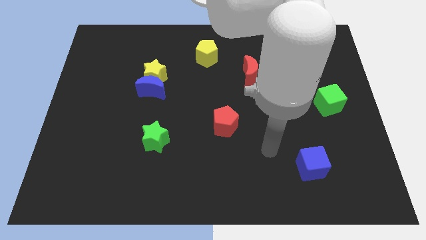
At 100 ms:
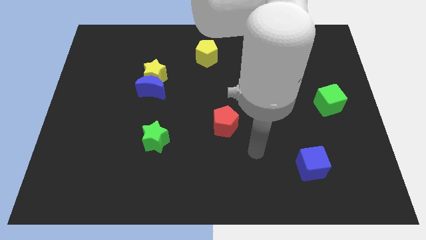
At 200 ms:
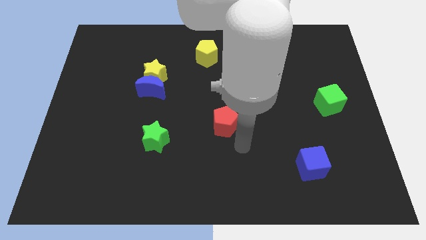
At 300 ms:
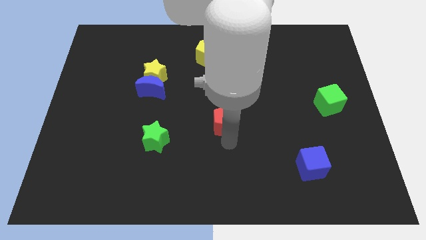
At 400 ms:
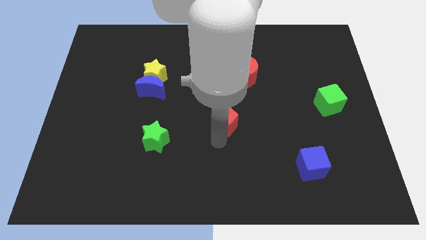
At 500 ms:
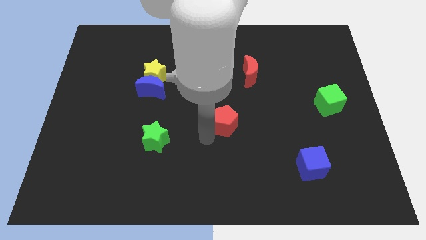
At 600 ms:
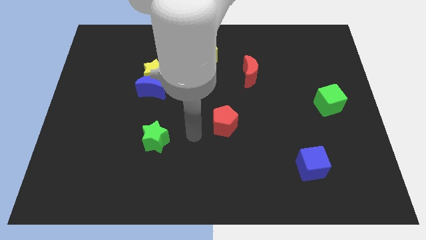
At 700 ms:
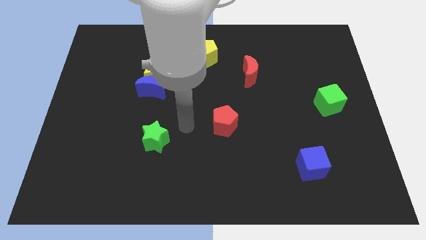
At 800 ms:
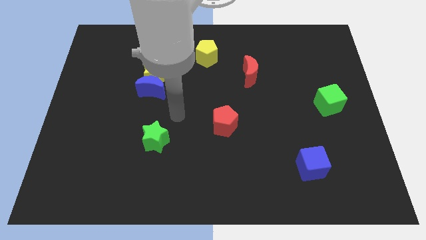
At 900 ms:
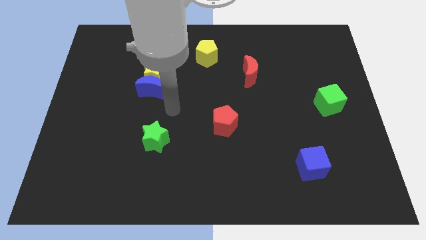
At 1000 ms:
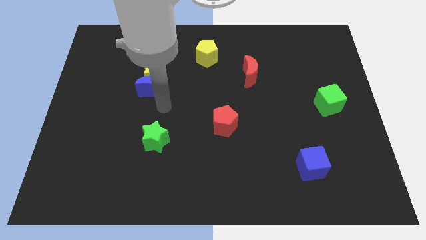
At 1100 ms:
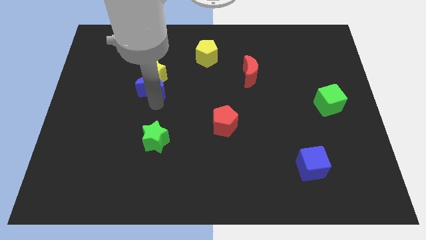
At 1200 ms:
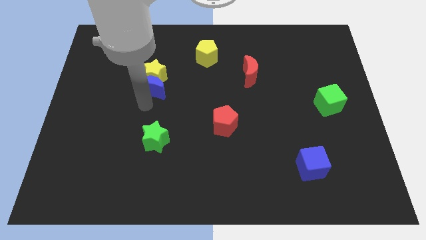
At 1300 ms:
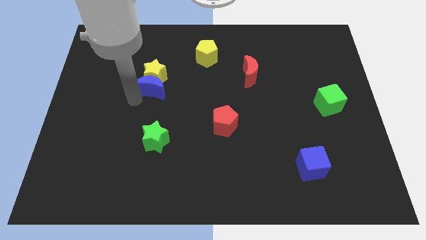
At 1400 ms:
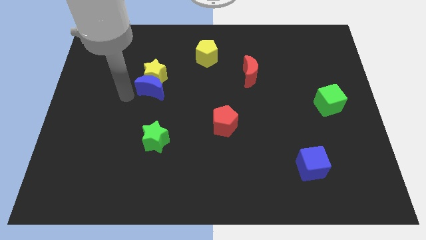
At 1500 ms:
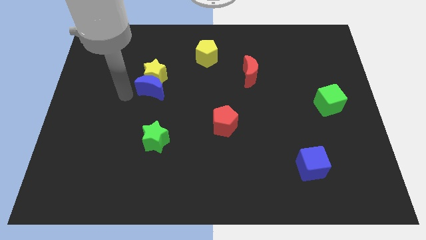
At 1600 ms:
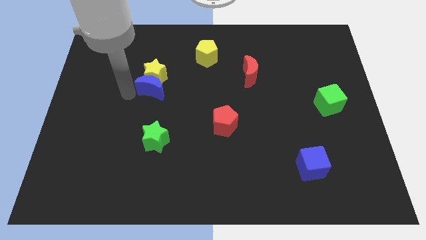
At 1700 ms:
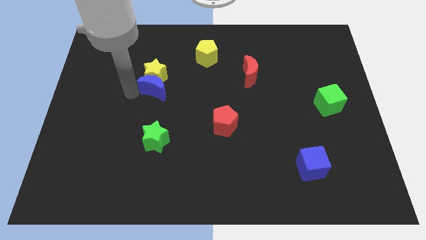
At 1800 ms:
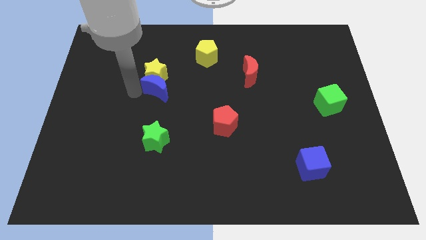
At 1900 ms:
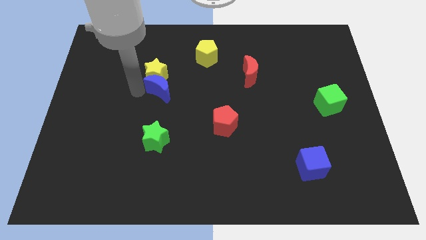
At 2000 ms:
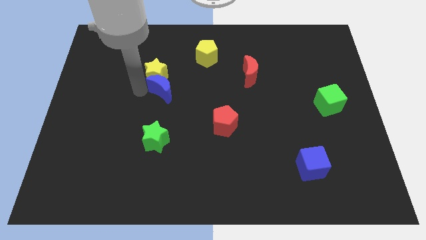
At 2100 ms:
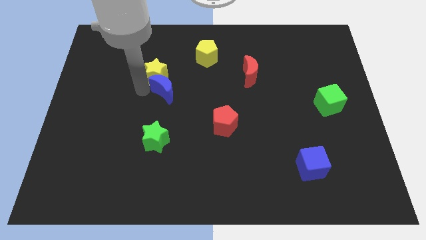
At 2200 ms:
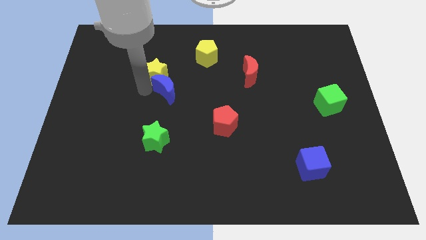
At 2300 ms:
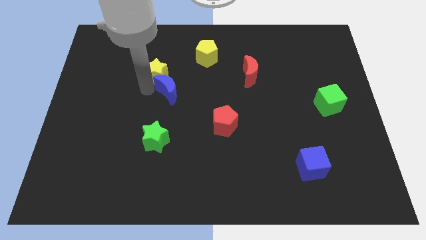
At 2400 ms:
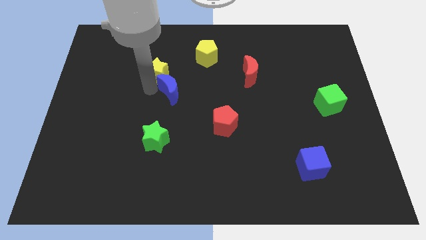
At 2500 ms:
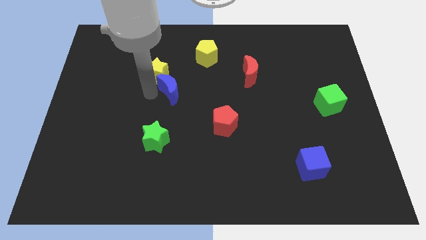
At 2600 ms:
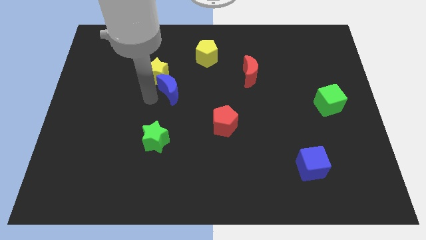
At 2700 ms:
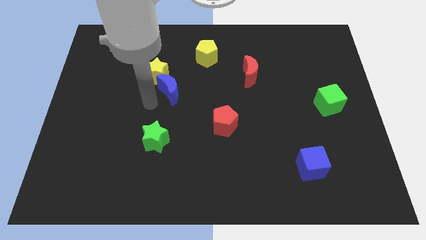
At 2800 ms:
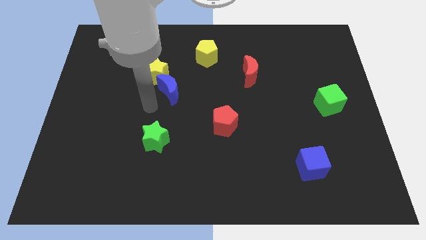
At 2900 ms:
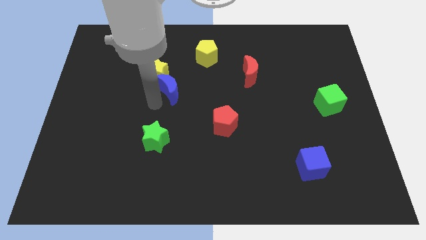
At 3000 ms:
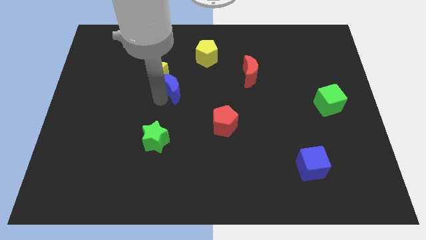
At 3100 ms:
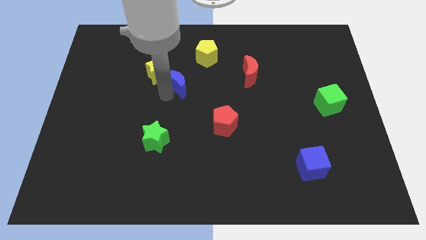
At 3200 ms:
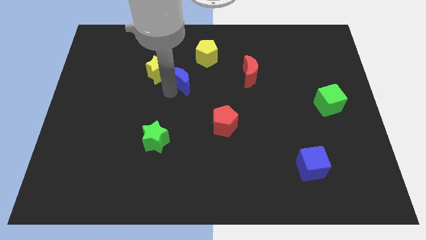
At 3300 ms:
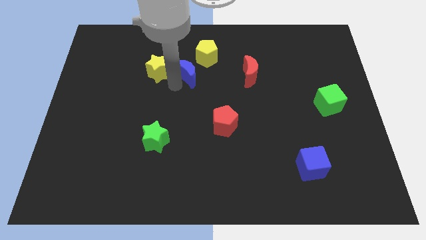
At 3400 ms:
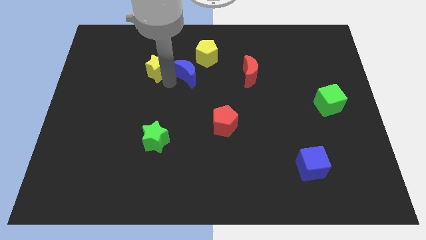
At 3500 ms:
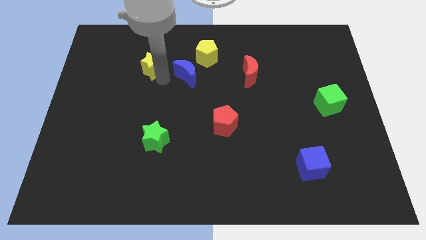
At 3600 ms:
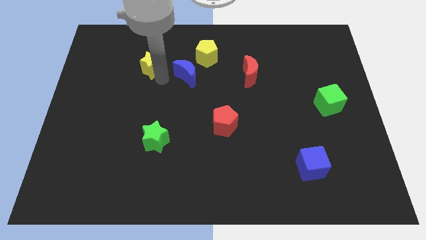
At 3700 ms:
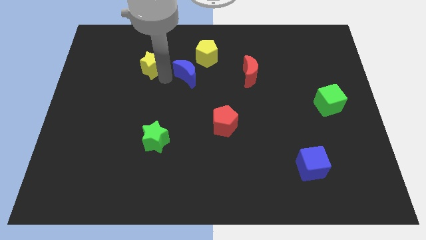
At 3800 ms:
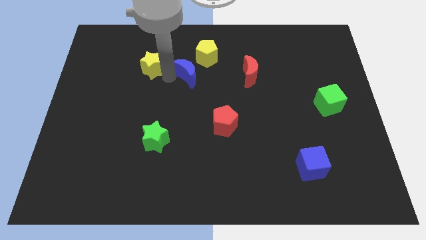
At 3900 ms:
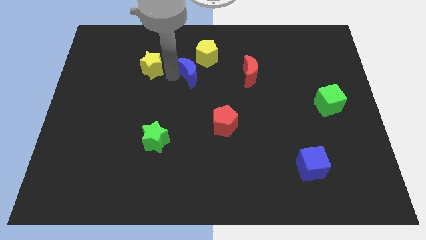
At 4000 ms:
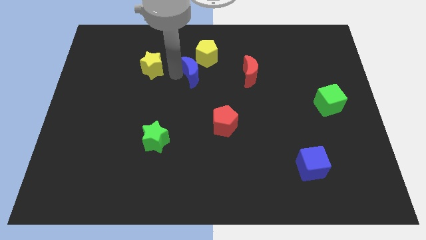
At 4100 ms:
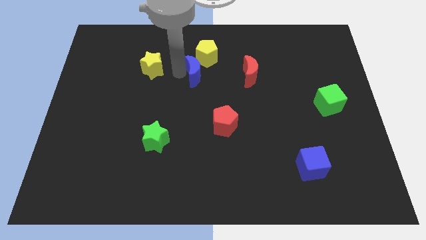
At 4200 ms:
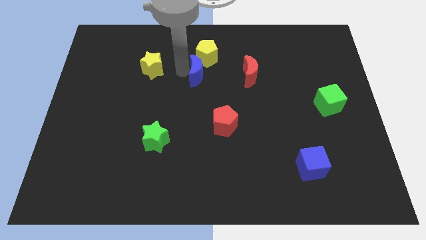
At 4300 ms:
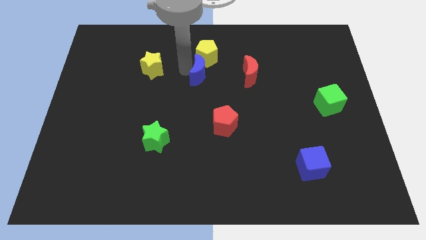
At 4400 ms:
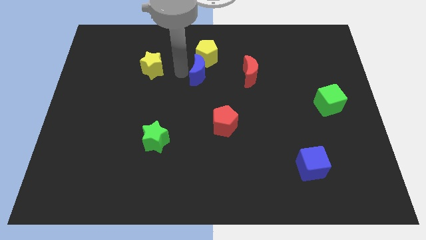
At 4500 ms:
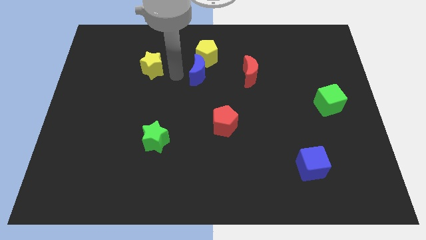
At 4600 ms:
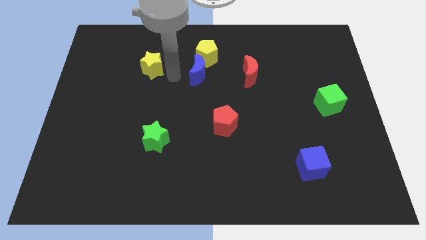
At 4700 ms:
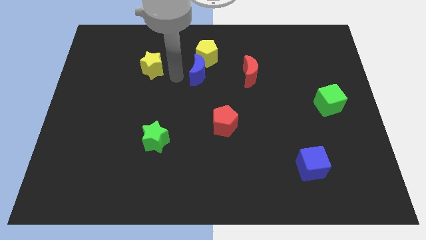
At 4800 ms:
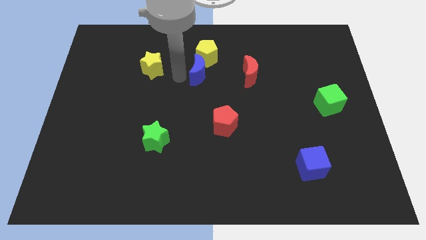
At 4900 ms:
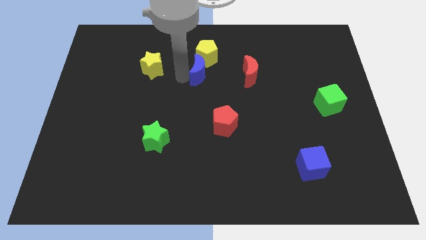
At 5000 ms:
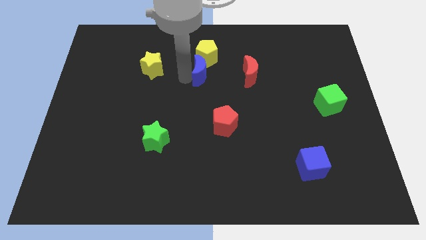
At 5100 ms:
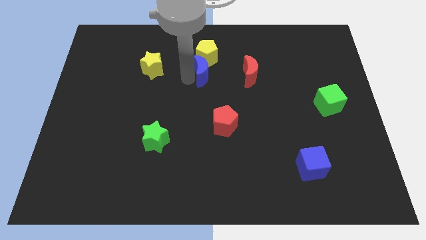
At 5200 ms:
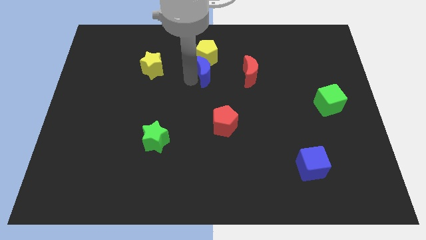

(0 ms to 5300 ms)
put the blue moon to the bottom right of the yellow pentagon

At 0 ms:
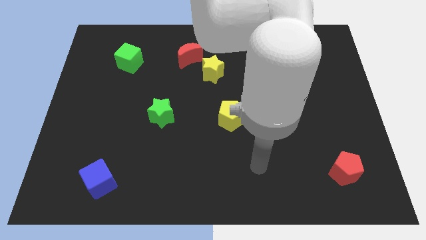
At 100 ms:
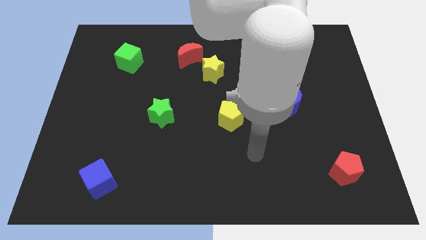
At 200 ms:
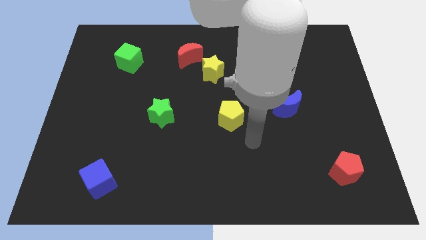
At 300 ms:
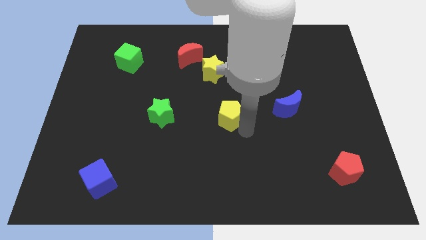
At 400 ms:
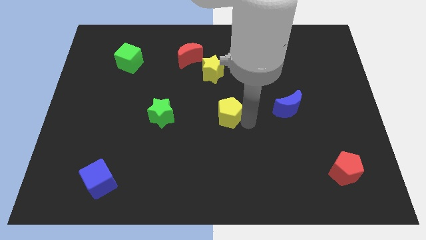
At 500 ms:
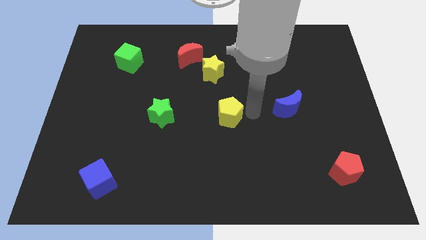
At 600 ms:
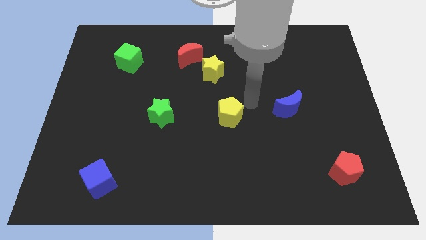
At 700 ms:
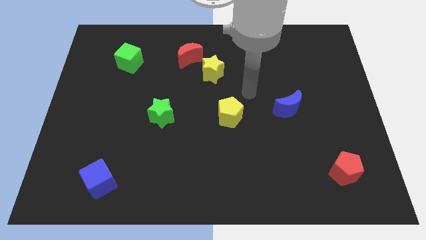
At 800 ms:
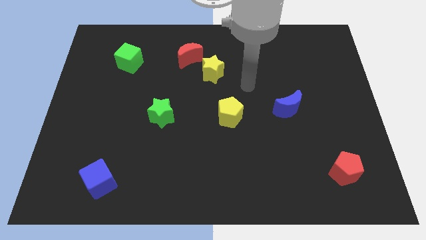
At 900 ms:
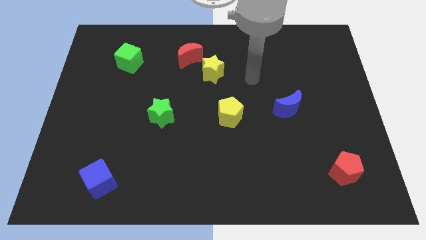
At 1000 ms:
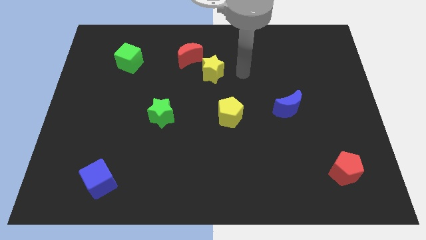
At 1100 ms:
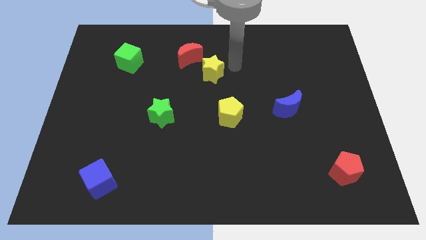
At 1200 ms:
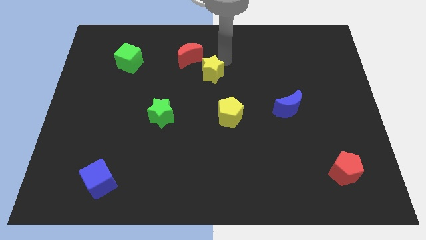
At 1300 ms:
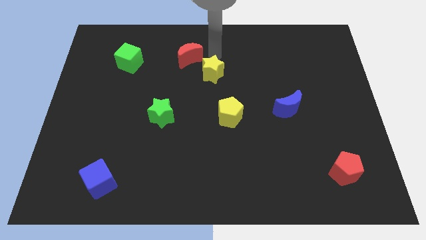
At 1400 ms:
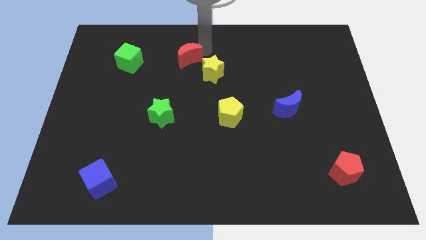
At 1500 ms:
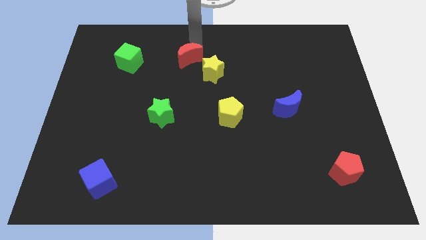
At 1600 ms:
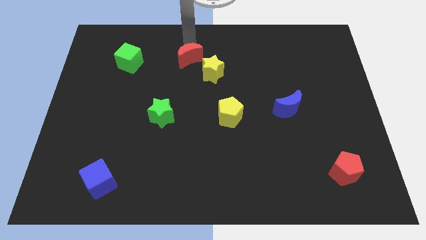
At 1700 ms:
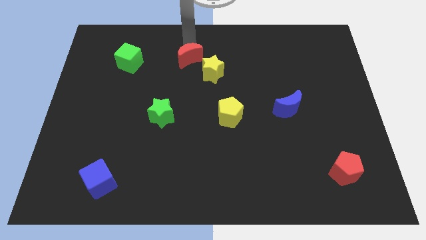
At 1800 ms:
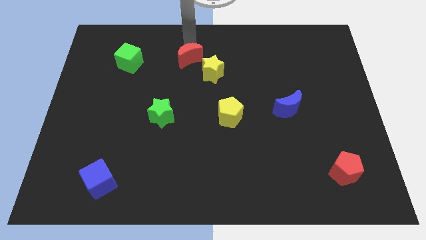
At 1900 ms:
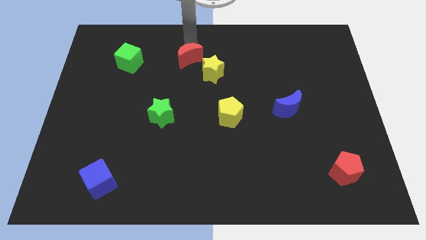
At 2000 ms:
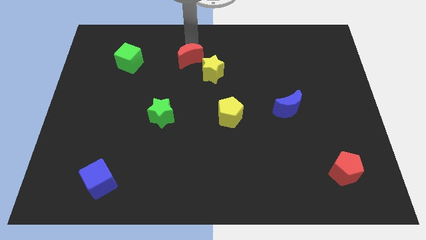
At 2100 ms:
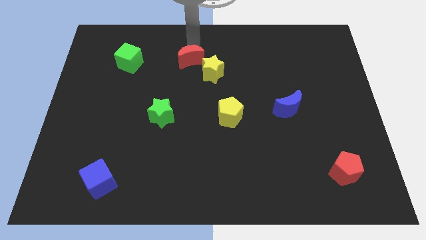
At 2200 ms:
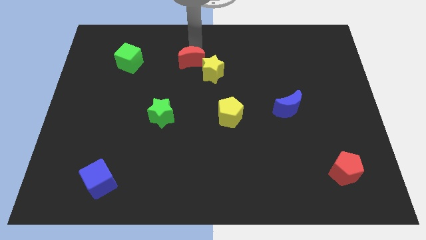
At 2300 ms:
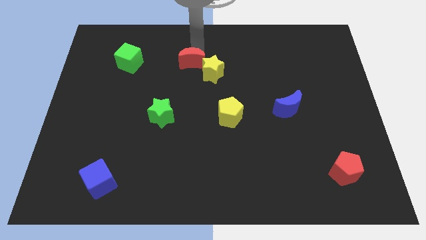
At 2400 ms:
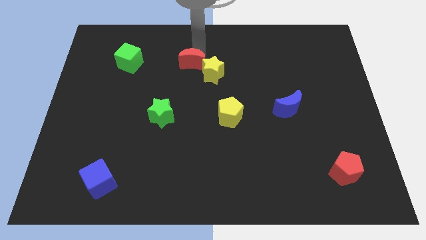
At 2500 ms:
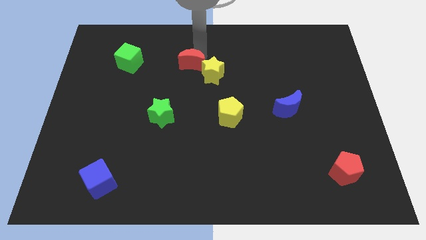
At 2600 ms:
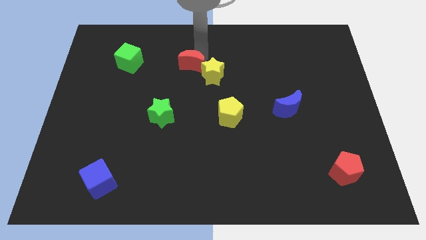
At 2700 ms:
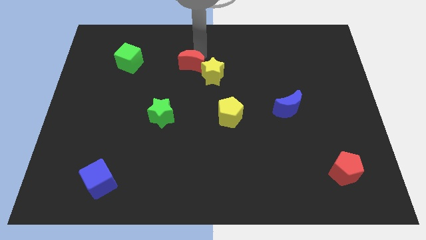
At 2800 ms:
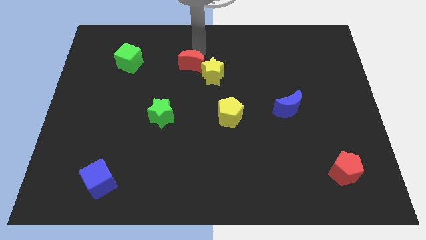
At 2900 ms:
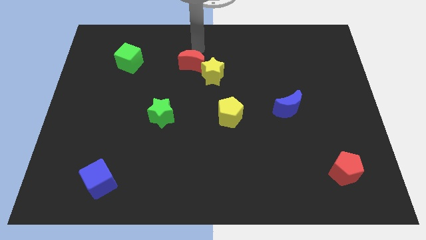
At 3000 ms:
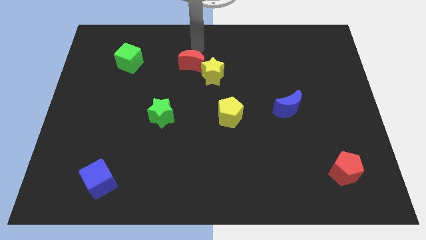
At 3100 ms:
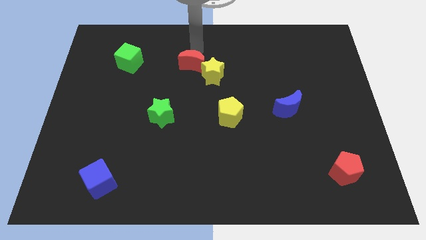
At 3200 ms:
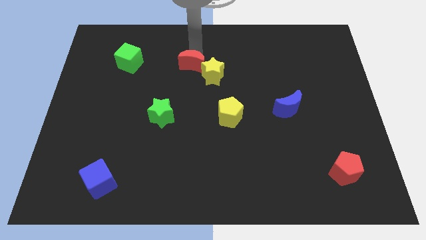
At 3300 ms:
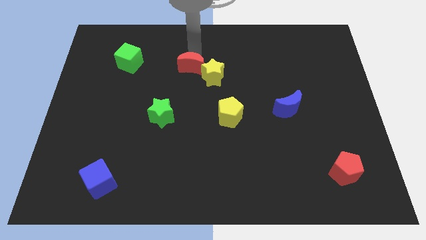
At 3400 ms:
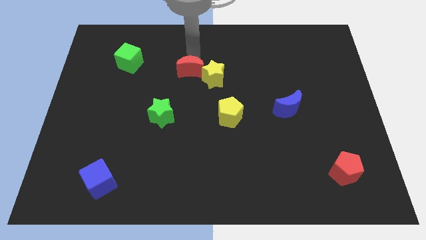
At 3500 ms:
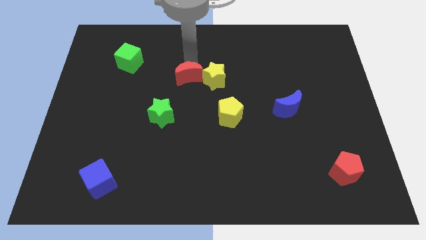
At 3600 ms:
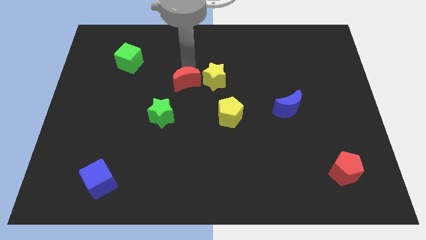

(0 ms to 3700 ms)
slide the red moon to the bottom left side of the yellow star
